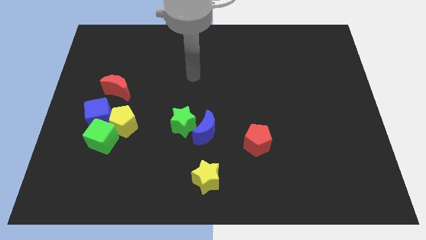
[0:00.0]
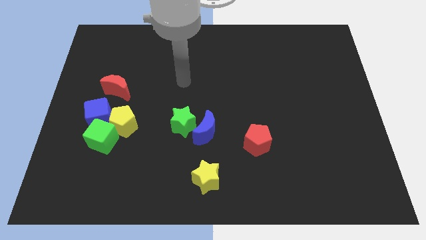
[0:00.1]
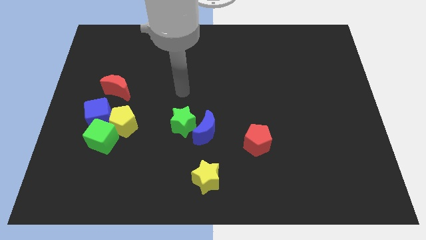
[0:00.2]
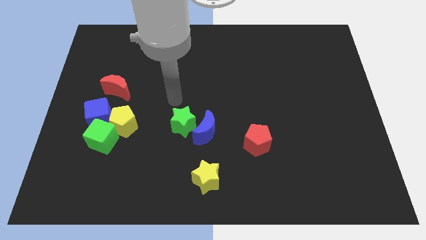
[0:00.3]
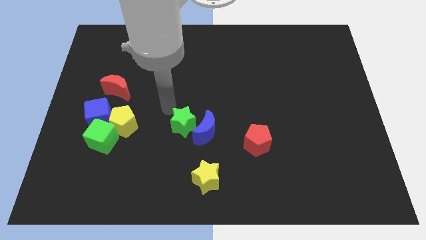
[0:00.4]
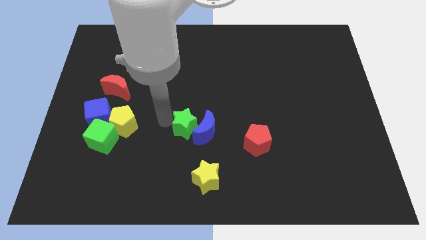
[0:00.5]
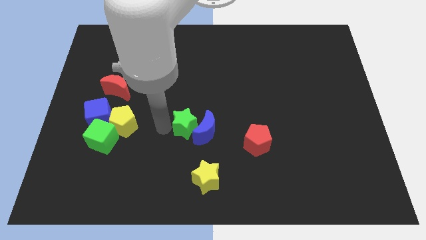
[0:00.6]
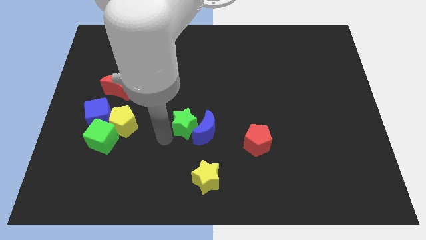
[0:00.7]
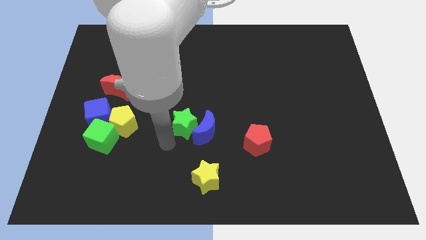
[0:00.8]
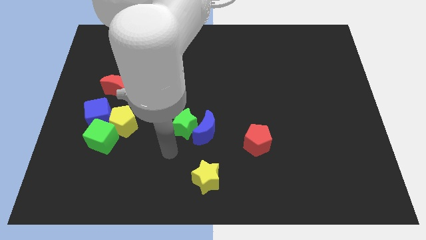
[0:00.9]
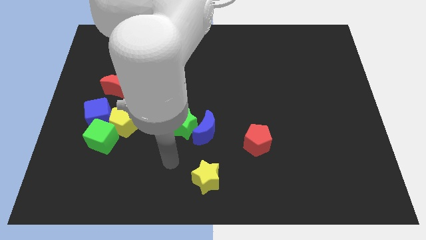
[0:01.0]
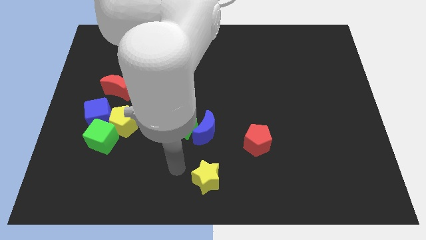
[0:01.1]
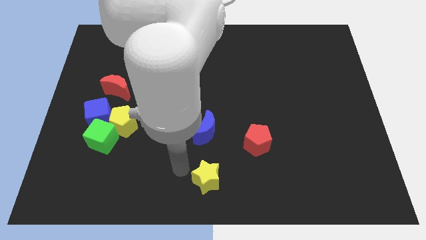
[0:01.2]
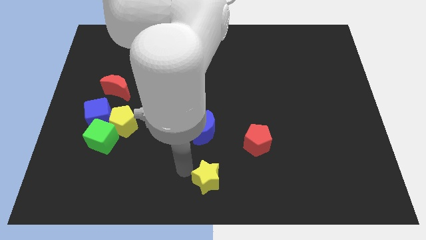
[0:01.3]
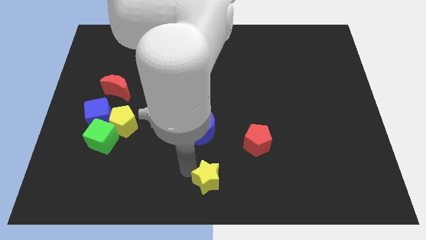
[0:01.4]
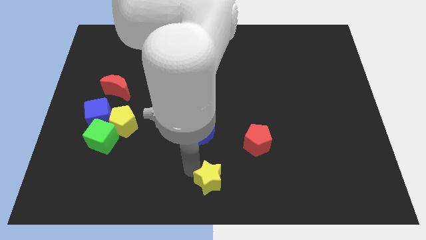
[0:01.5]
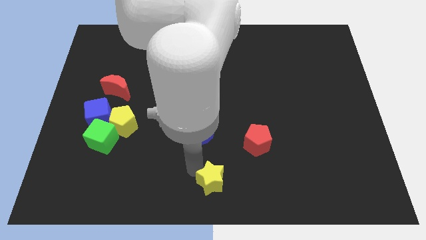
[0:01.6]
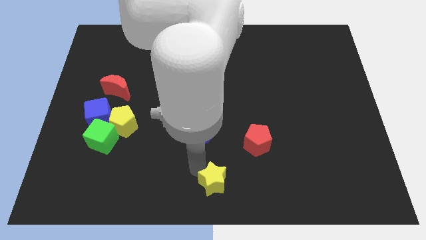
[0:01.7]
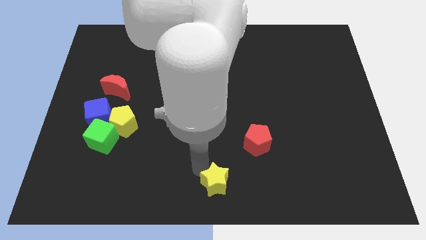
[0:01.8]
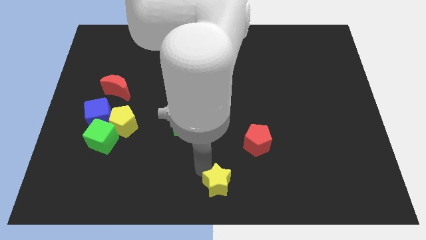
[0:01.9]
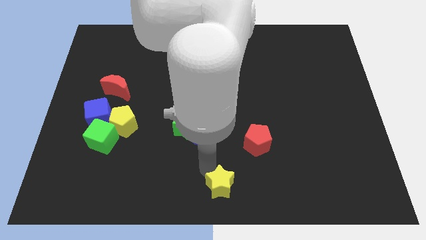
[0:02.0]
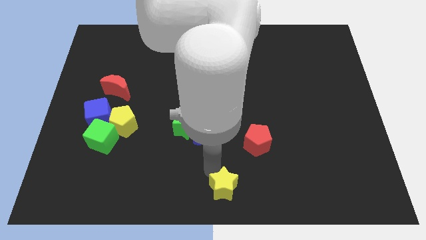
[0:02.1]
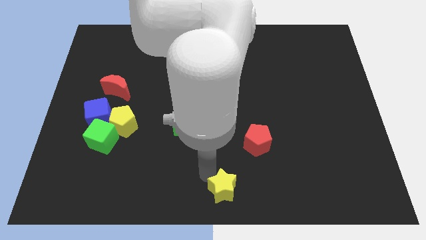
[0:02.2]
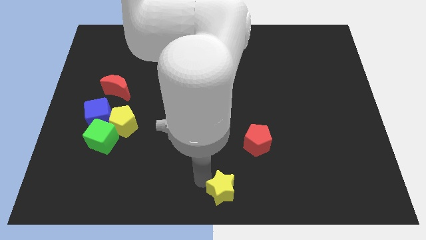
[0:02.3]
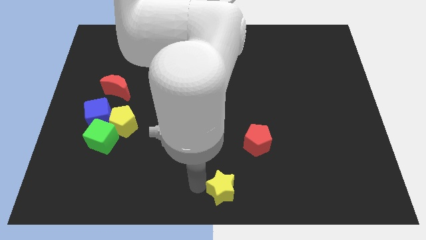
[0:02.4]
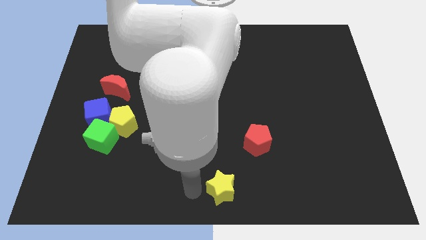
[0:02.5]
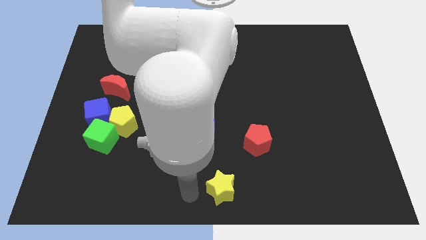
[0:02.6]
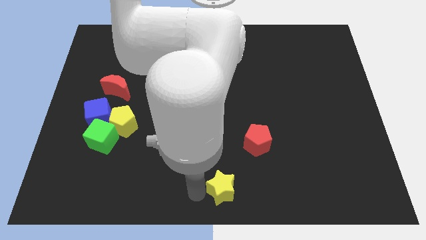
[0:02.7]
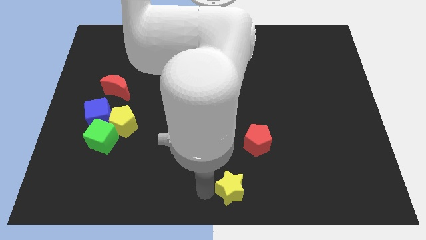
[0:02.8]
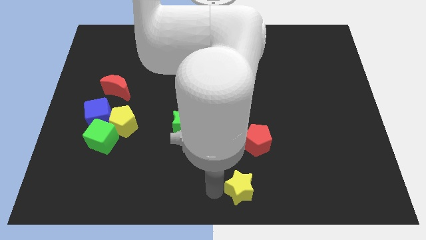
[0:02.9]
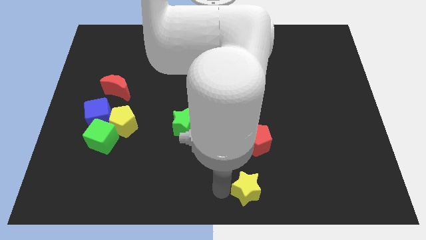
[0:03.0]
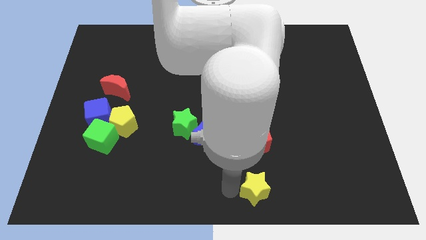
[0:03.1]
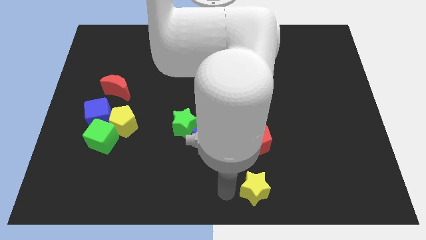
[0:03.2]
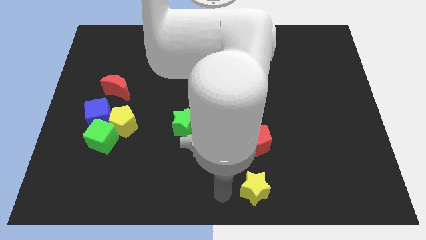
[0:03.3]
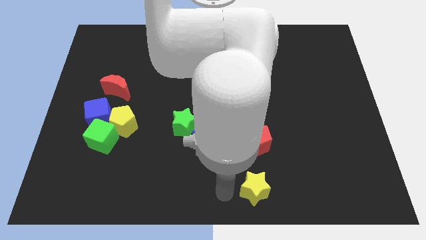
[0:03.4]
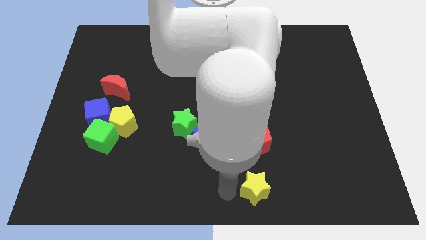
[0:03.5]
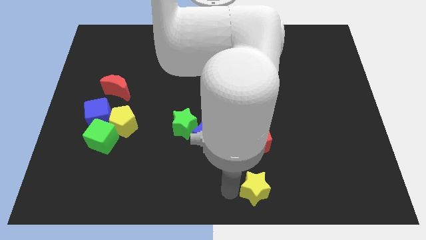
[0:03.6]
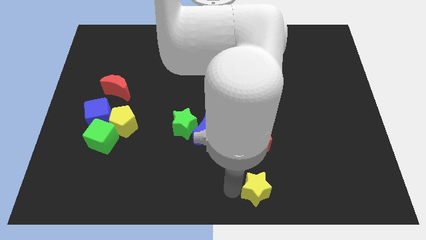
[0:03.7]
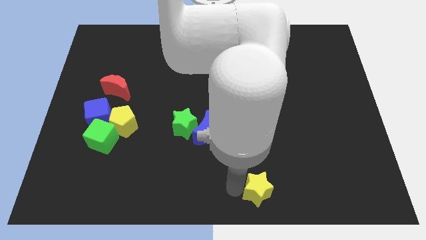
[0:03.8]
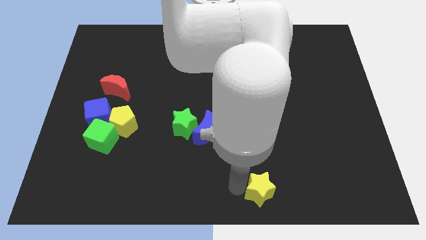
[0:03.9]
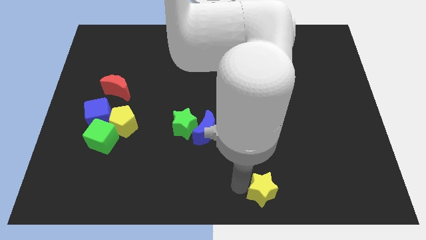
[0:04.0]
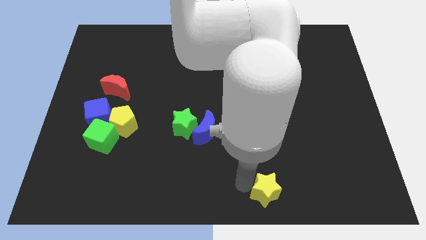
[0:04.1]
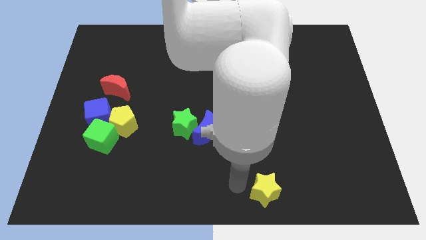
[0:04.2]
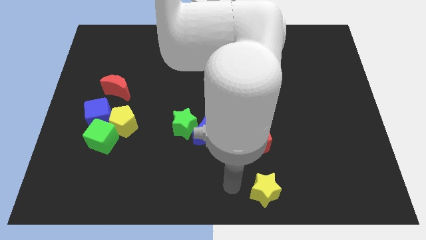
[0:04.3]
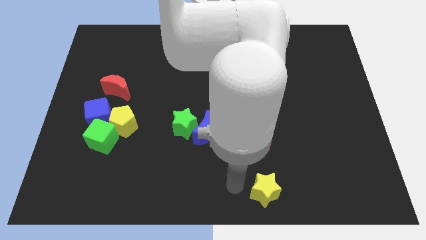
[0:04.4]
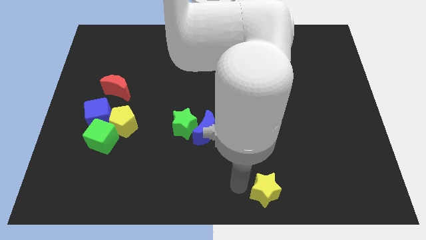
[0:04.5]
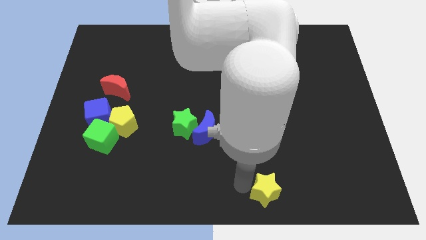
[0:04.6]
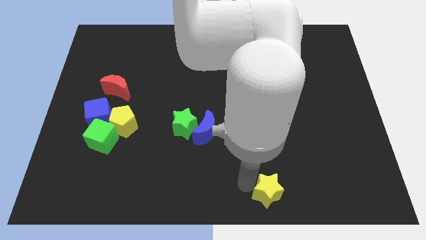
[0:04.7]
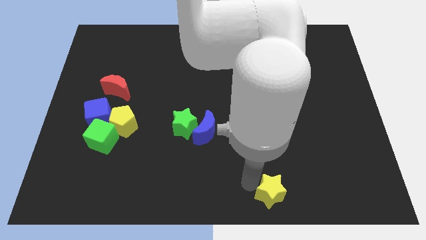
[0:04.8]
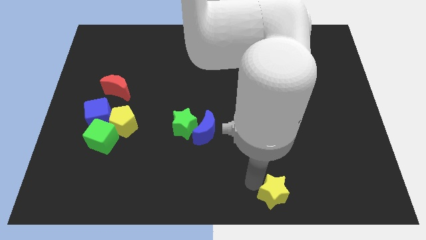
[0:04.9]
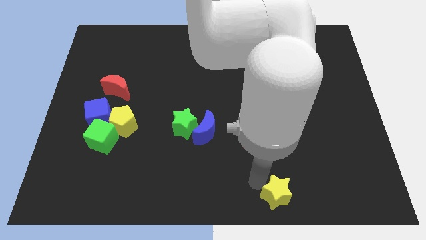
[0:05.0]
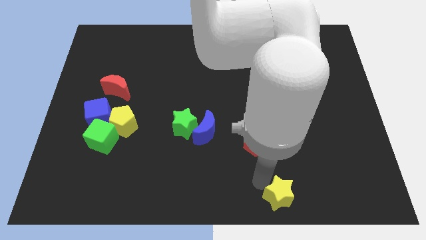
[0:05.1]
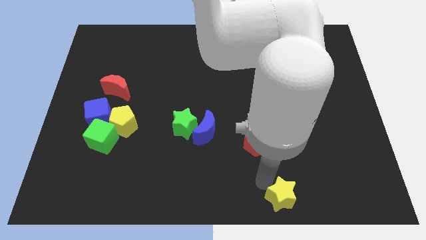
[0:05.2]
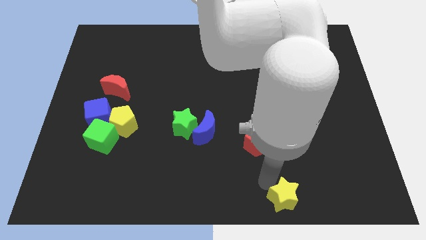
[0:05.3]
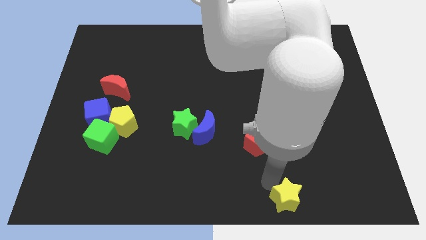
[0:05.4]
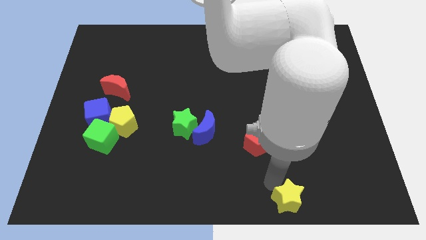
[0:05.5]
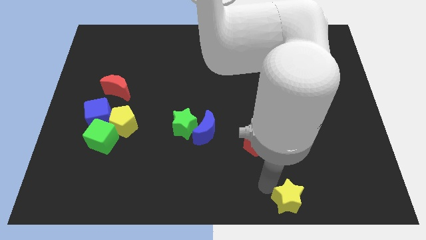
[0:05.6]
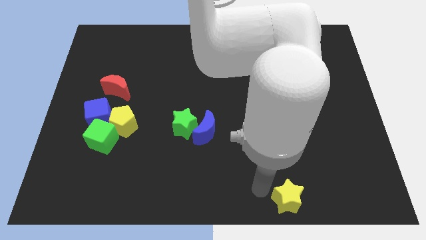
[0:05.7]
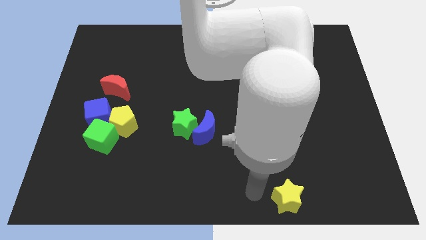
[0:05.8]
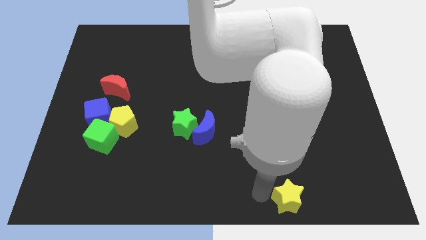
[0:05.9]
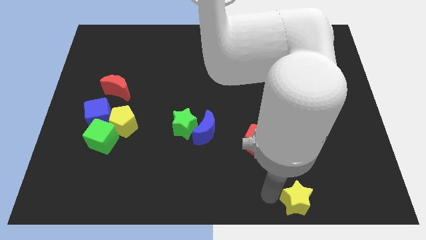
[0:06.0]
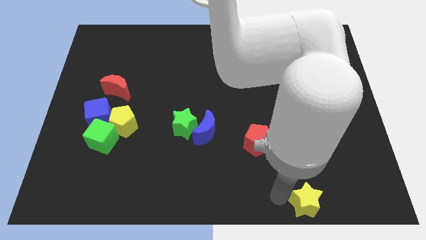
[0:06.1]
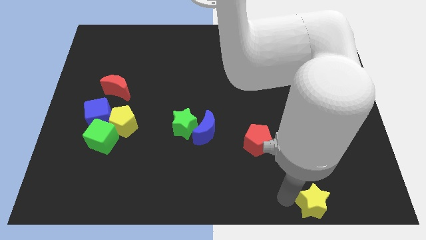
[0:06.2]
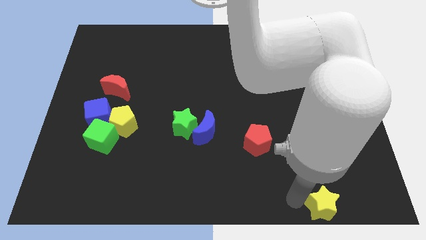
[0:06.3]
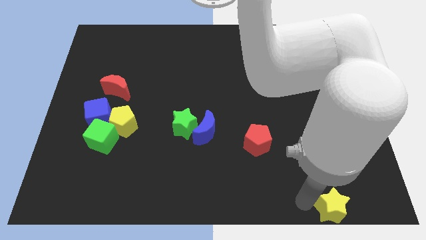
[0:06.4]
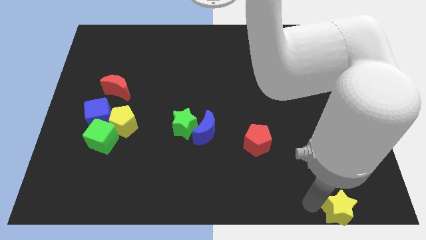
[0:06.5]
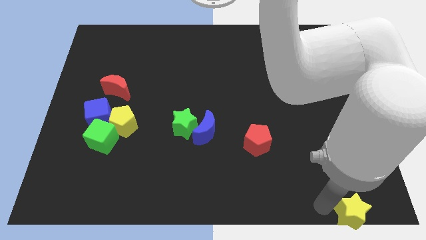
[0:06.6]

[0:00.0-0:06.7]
push the yellow star to the bottom right of the board

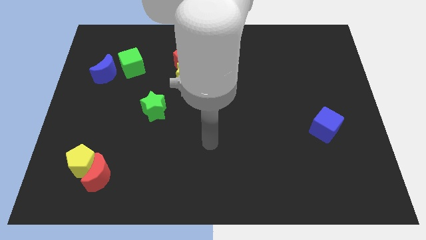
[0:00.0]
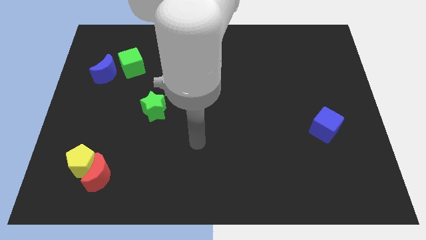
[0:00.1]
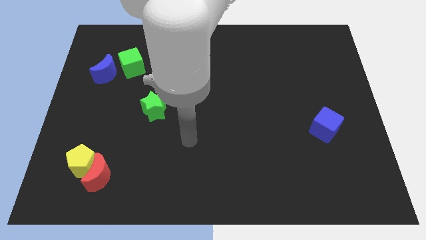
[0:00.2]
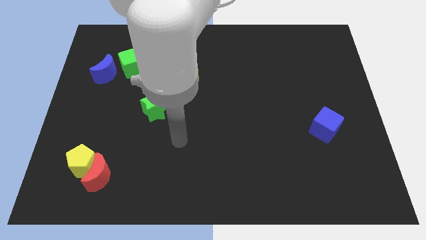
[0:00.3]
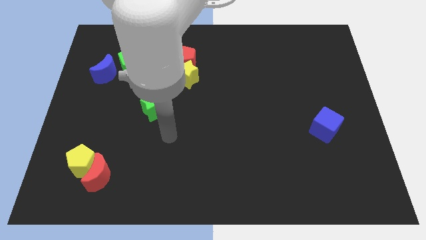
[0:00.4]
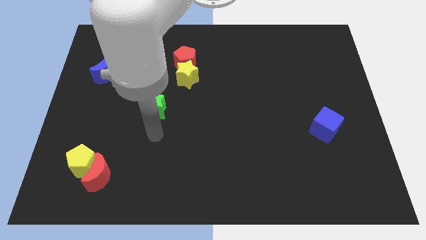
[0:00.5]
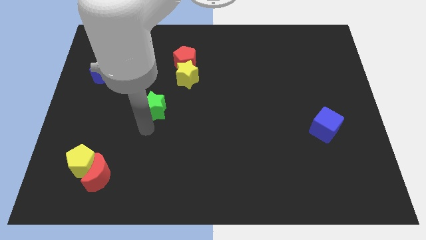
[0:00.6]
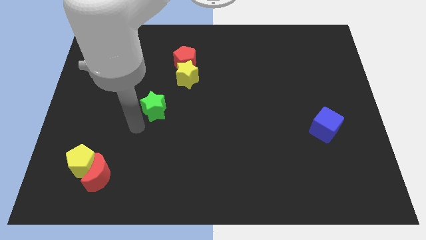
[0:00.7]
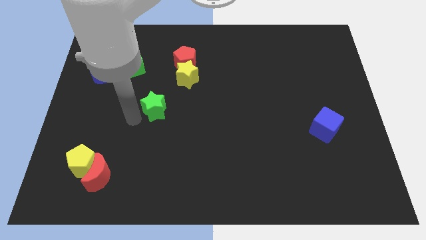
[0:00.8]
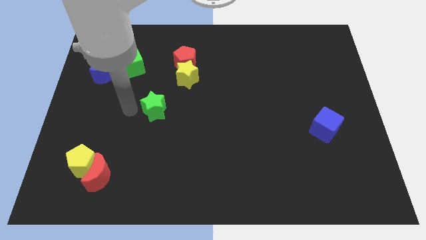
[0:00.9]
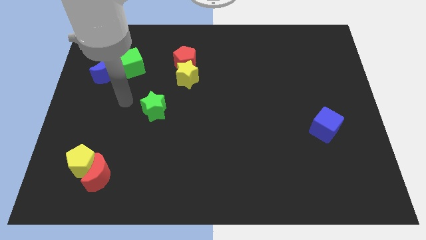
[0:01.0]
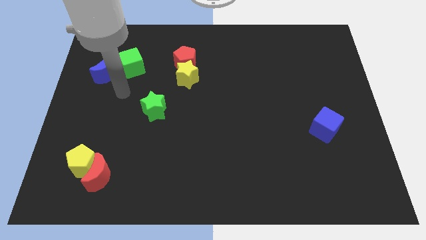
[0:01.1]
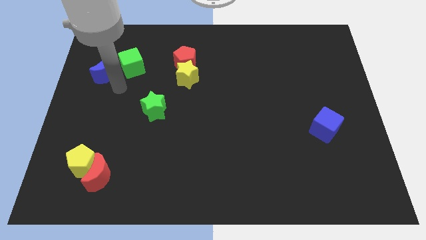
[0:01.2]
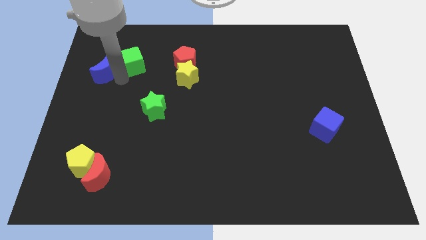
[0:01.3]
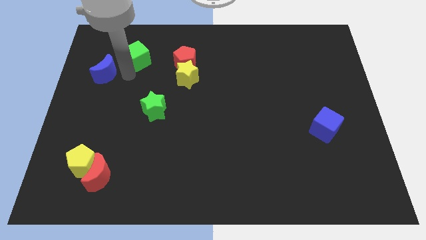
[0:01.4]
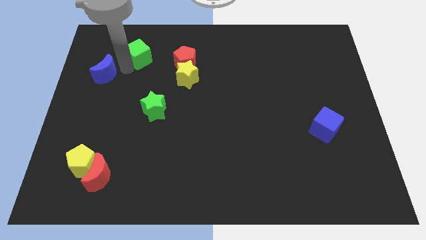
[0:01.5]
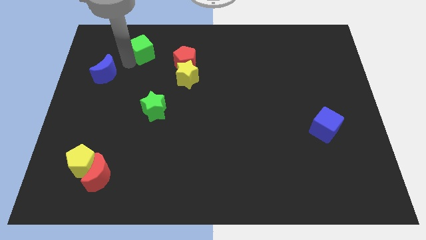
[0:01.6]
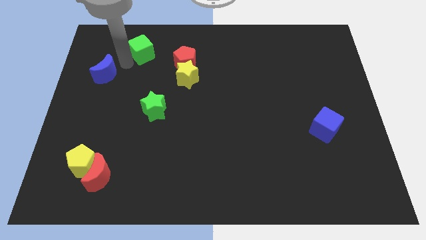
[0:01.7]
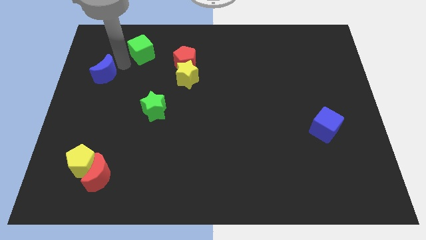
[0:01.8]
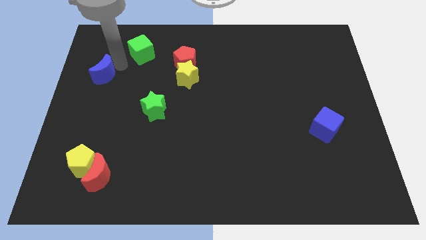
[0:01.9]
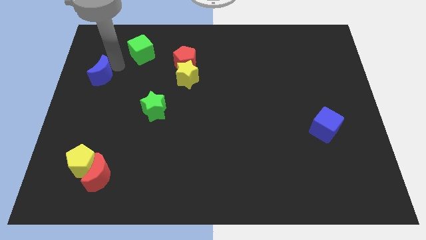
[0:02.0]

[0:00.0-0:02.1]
slide the blue moon to the center left
